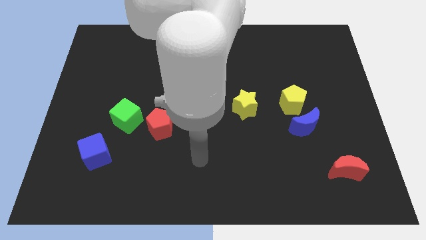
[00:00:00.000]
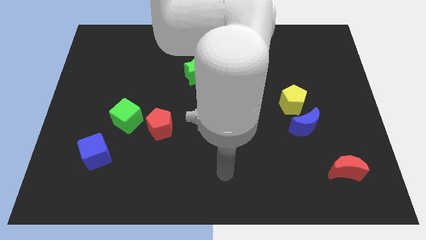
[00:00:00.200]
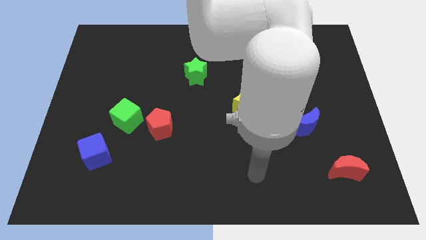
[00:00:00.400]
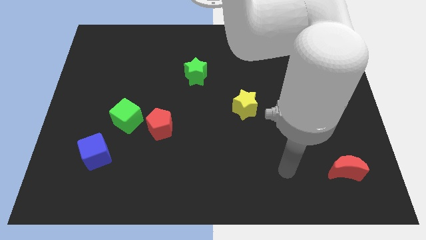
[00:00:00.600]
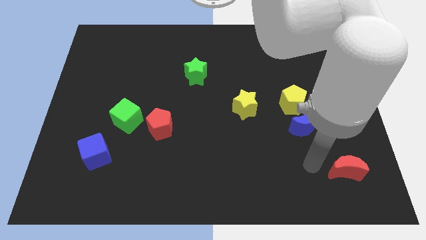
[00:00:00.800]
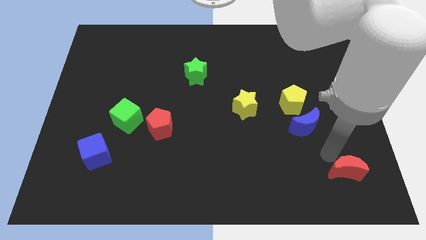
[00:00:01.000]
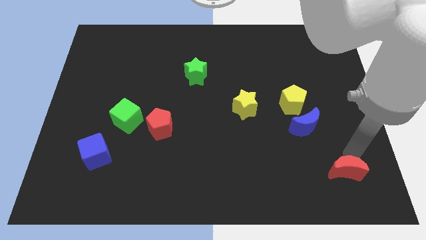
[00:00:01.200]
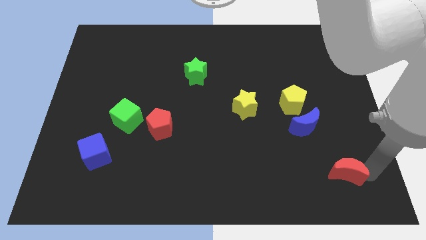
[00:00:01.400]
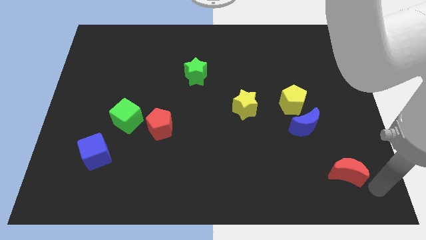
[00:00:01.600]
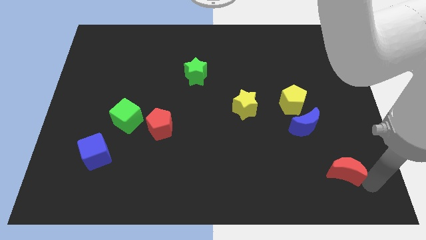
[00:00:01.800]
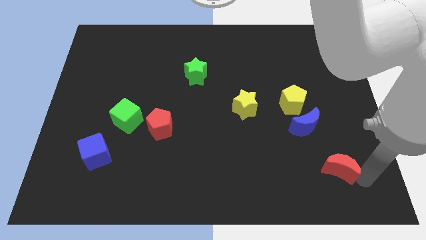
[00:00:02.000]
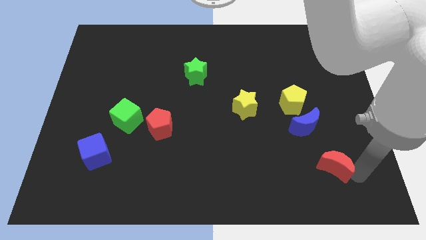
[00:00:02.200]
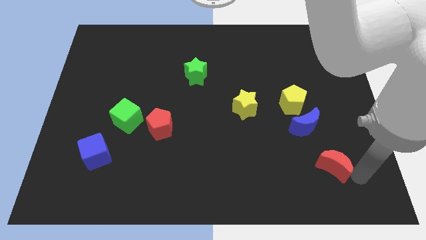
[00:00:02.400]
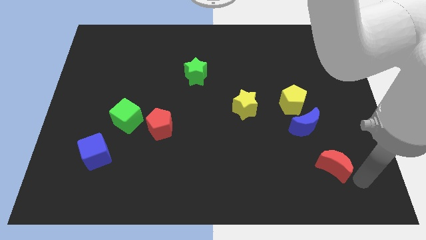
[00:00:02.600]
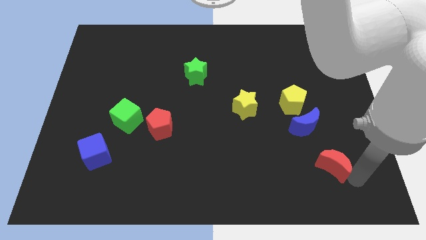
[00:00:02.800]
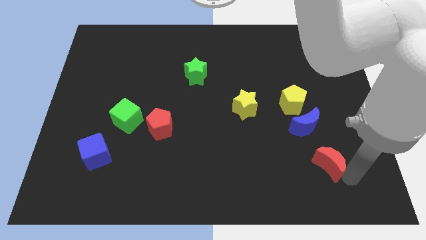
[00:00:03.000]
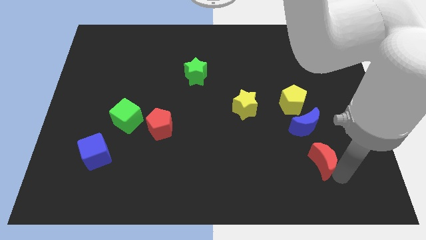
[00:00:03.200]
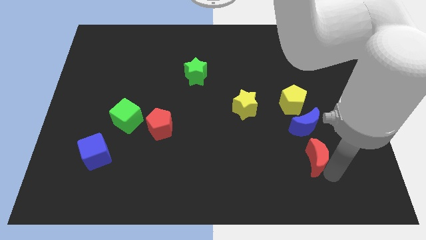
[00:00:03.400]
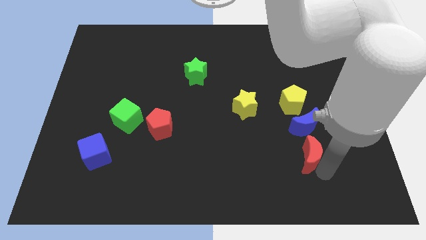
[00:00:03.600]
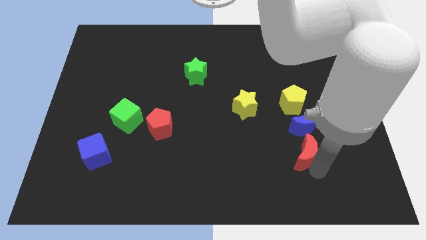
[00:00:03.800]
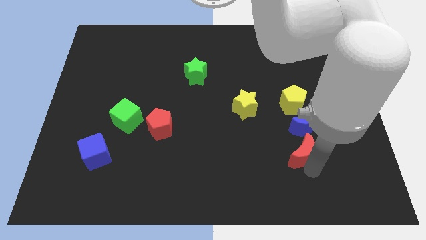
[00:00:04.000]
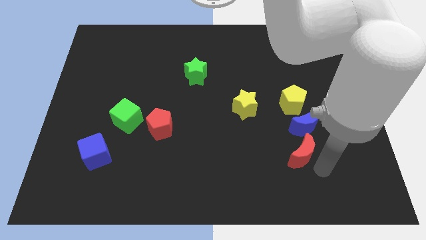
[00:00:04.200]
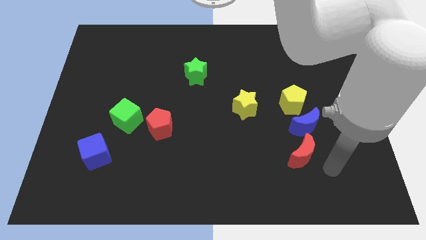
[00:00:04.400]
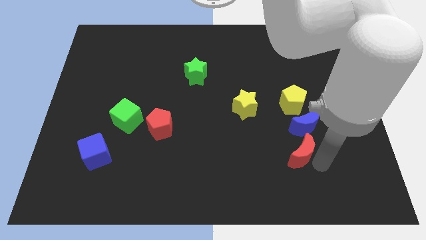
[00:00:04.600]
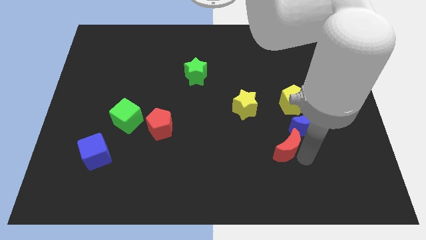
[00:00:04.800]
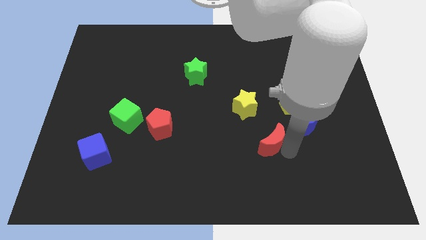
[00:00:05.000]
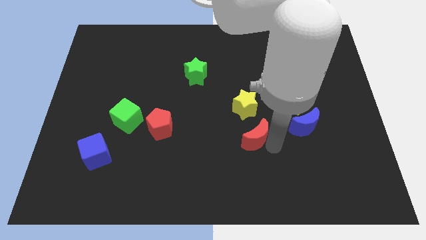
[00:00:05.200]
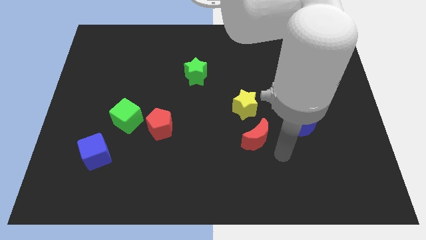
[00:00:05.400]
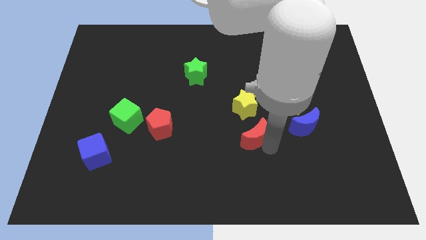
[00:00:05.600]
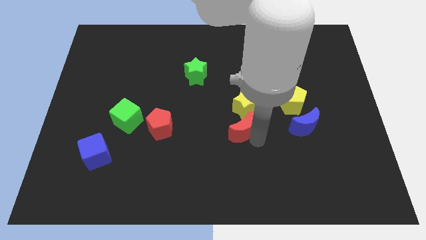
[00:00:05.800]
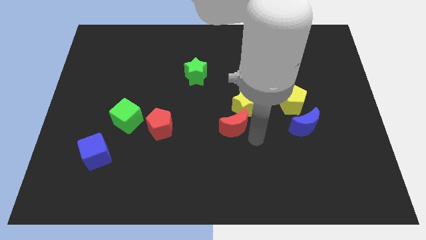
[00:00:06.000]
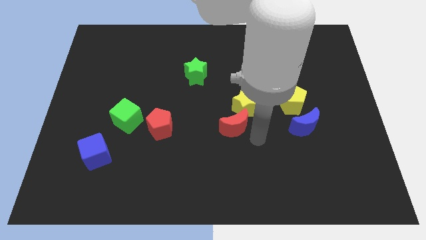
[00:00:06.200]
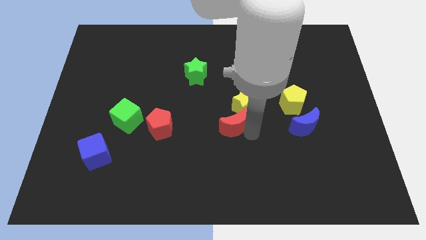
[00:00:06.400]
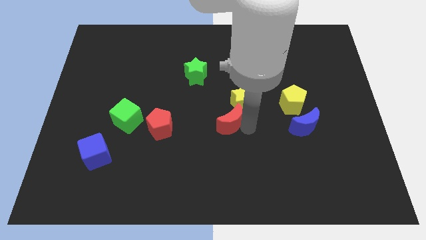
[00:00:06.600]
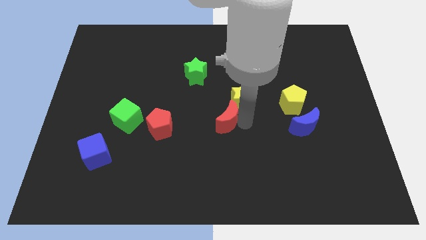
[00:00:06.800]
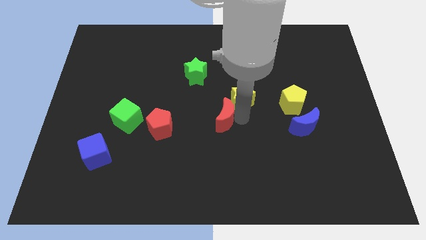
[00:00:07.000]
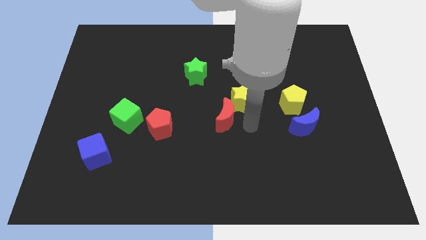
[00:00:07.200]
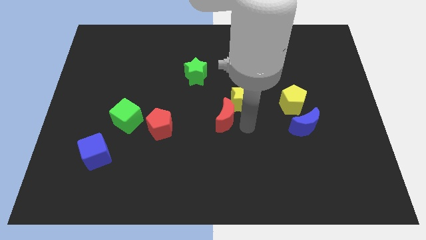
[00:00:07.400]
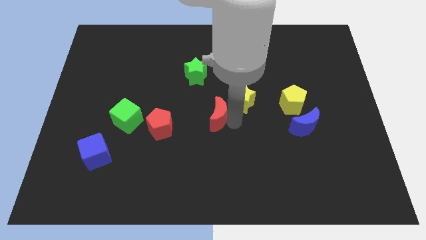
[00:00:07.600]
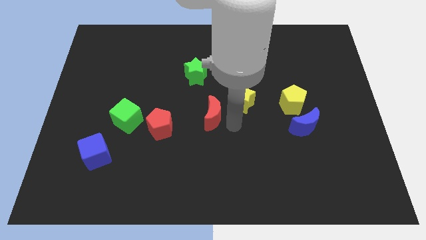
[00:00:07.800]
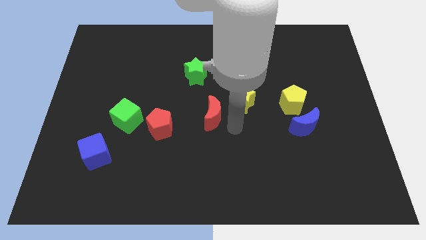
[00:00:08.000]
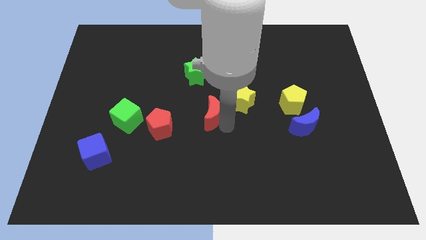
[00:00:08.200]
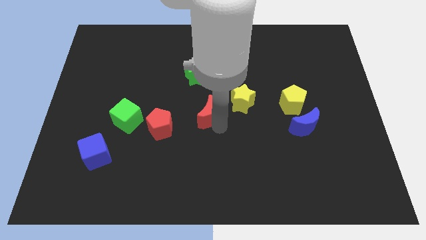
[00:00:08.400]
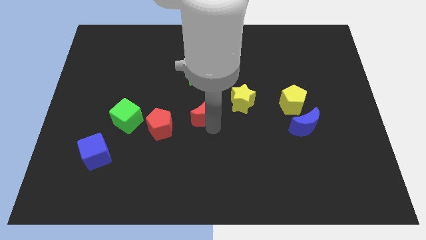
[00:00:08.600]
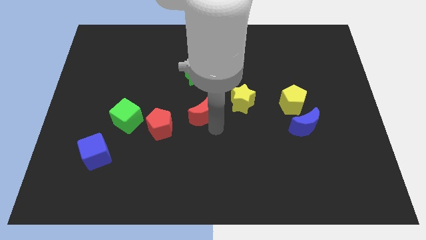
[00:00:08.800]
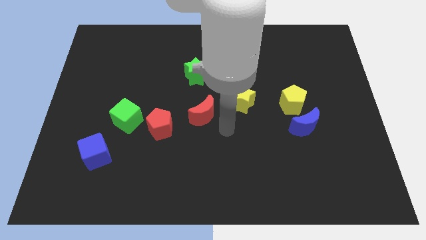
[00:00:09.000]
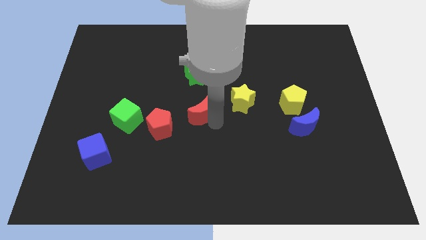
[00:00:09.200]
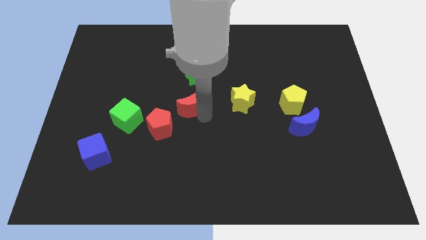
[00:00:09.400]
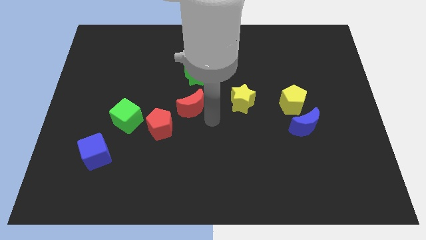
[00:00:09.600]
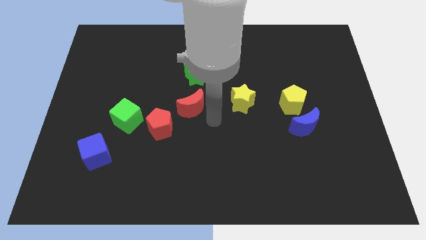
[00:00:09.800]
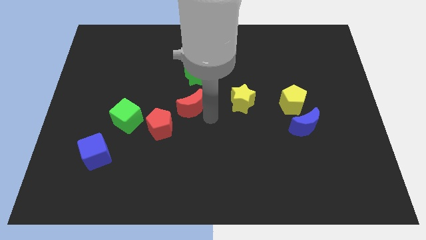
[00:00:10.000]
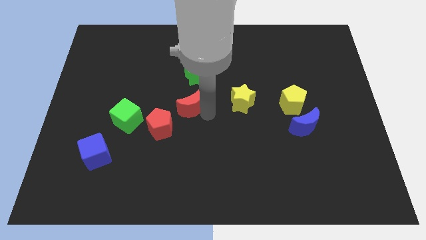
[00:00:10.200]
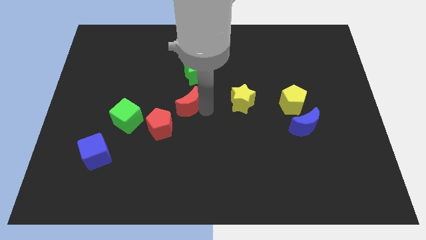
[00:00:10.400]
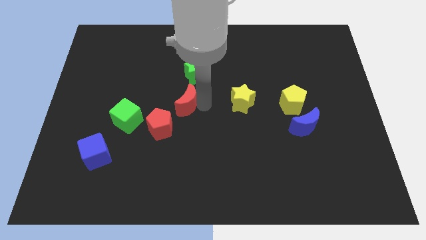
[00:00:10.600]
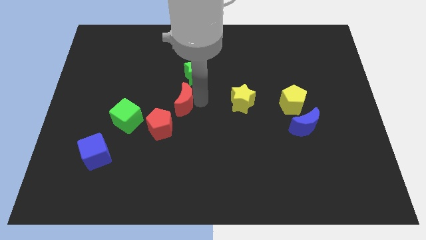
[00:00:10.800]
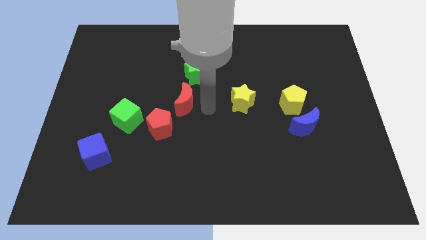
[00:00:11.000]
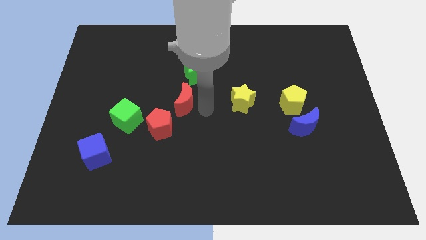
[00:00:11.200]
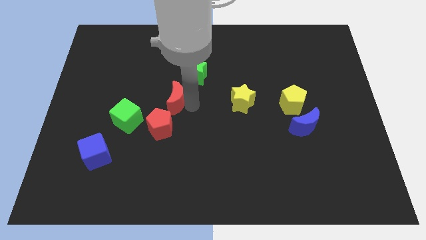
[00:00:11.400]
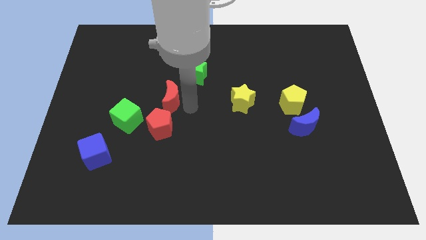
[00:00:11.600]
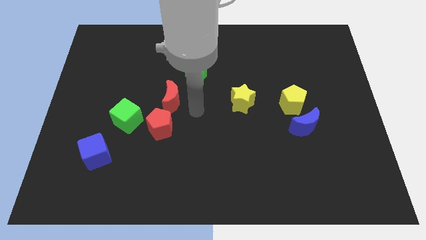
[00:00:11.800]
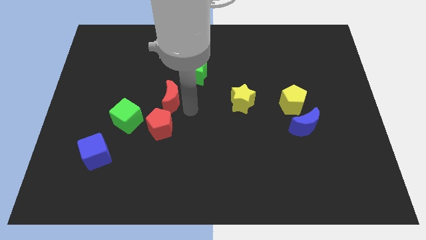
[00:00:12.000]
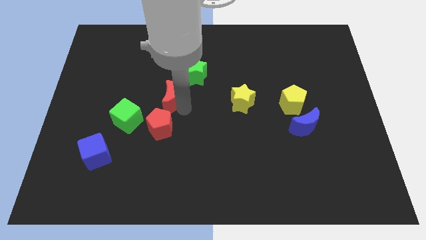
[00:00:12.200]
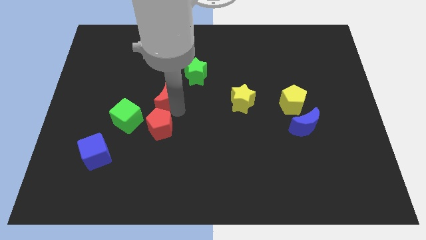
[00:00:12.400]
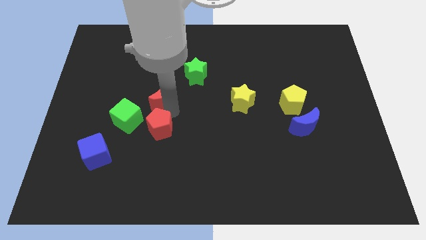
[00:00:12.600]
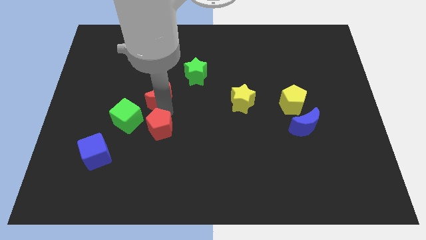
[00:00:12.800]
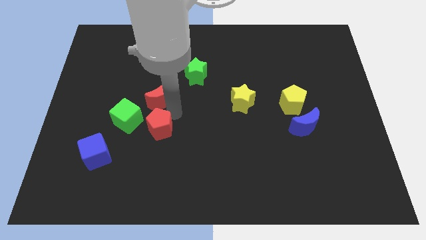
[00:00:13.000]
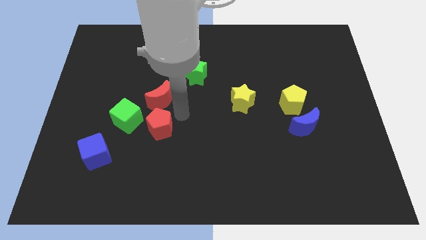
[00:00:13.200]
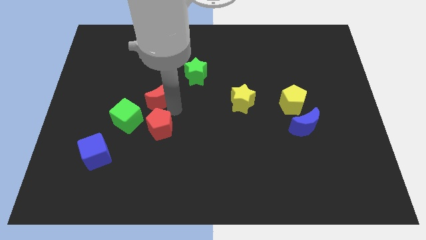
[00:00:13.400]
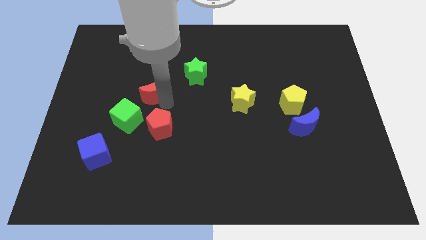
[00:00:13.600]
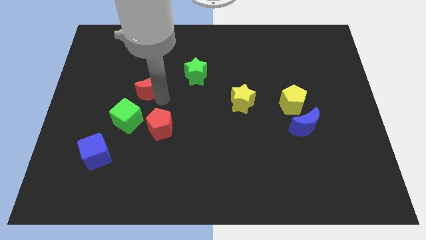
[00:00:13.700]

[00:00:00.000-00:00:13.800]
push the red moon to the top of the green cube
